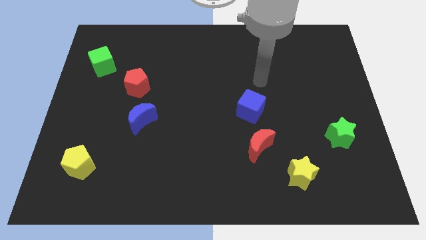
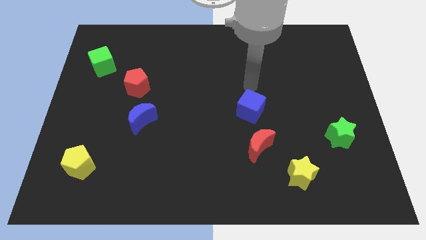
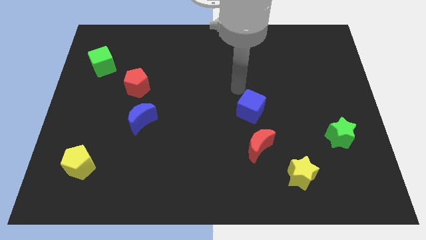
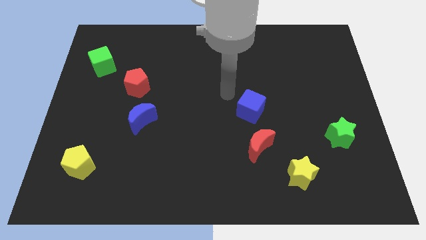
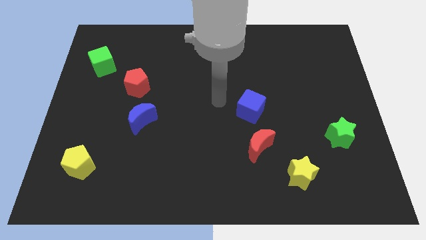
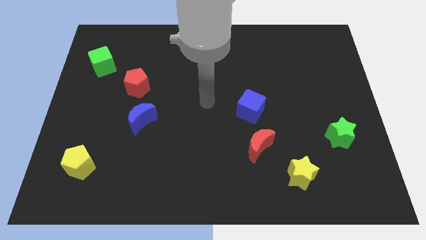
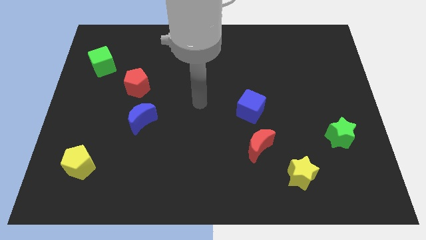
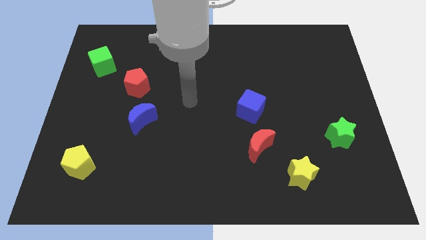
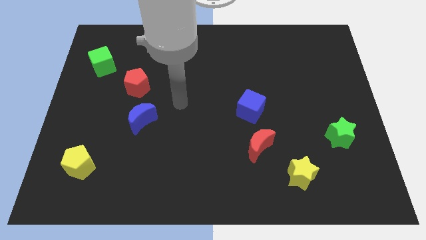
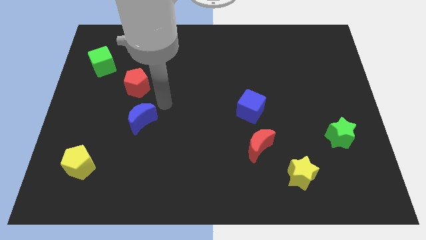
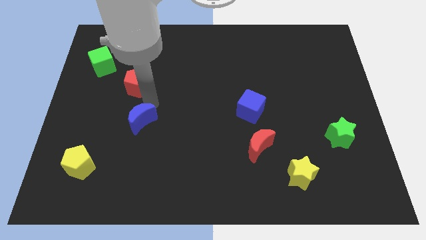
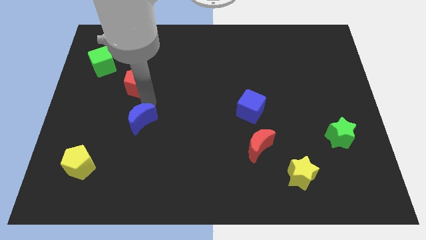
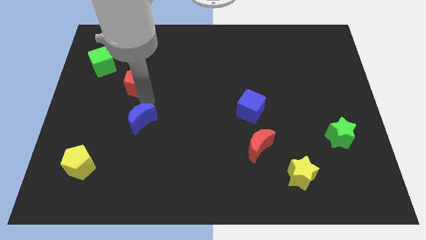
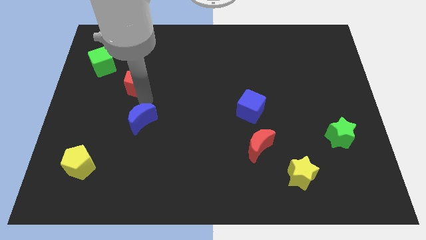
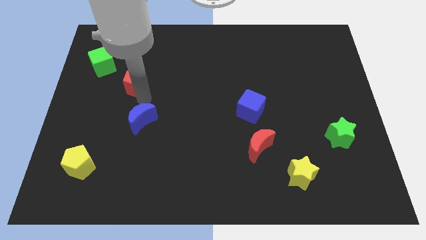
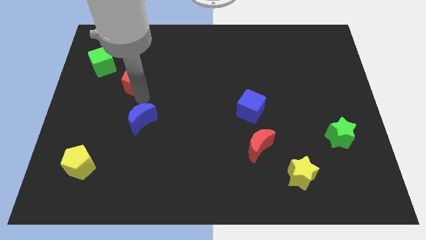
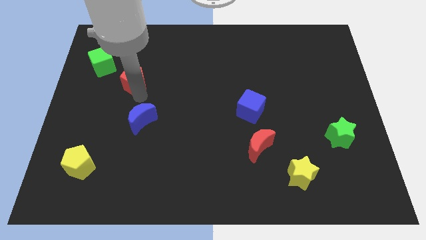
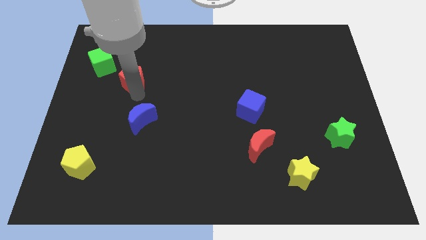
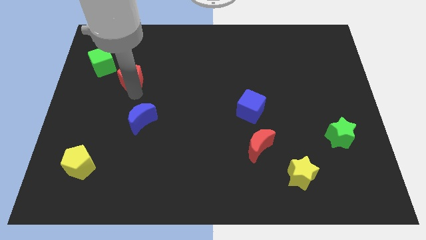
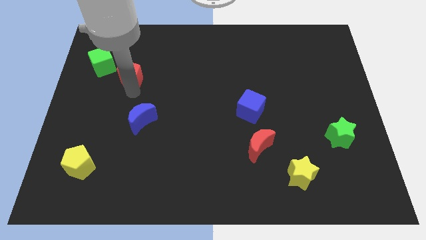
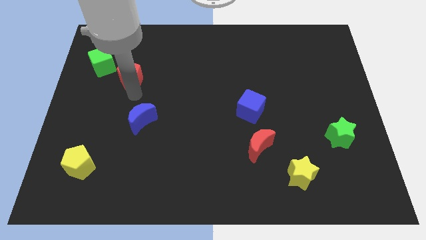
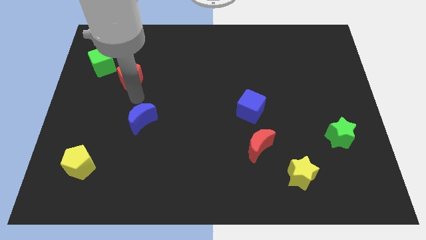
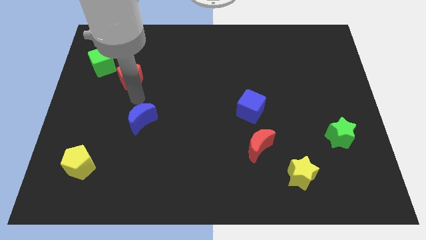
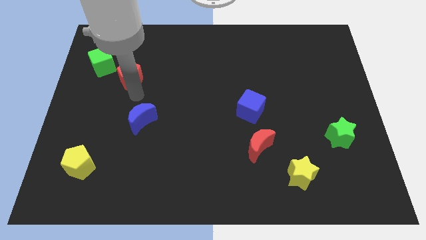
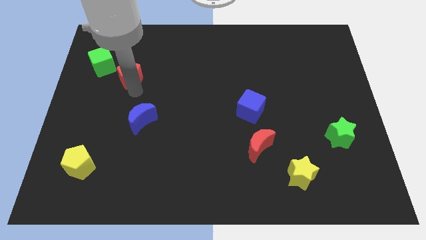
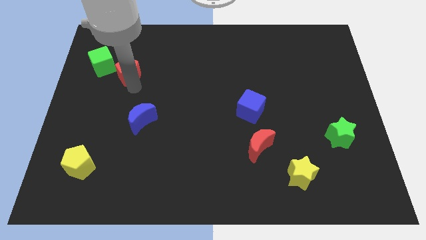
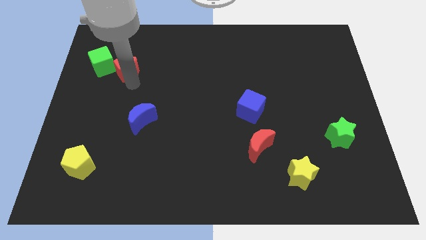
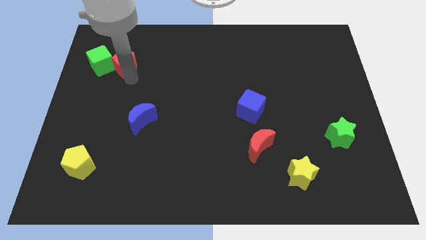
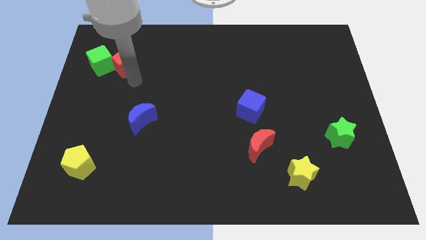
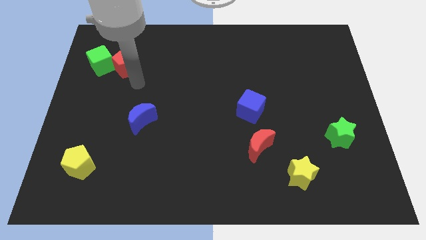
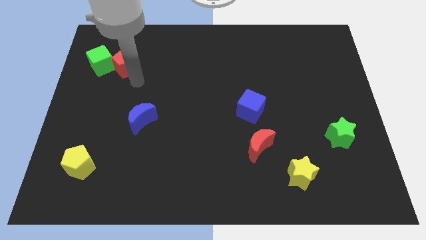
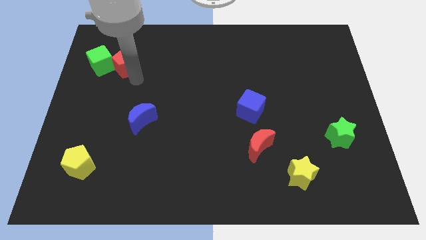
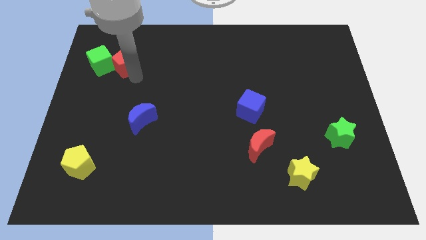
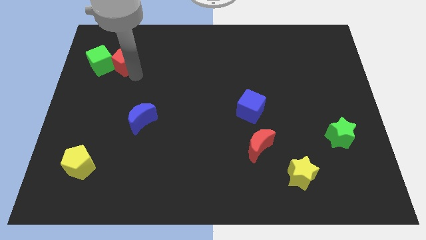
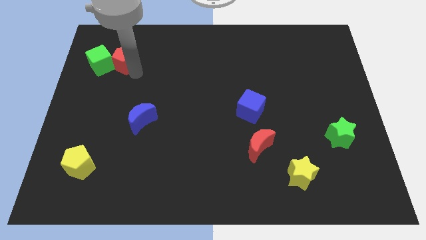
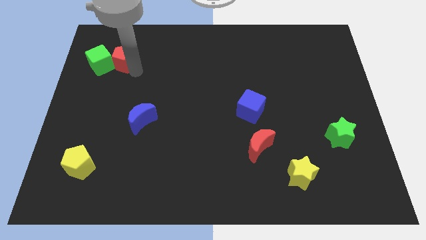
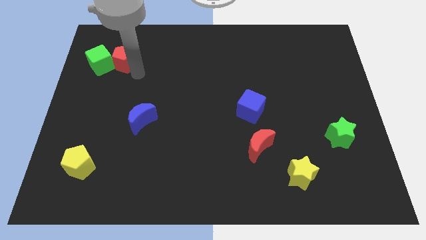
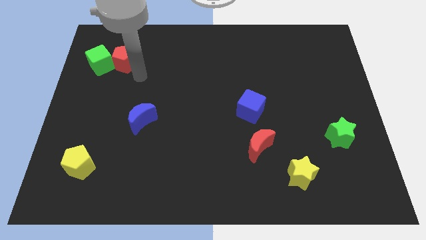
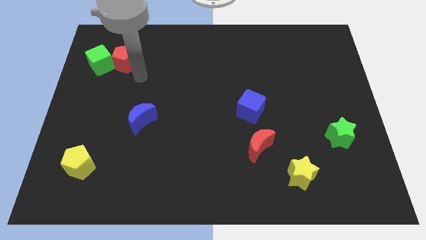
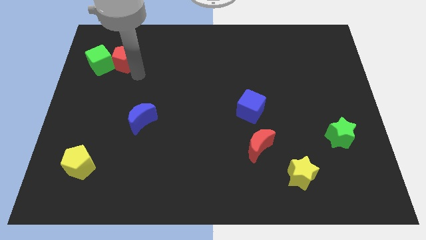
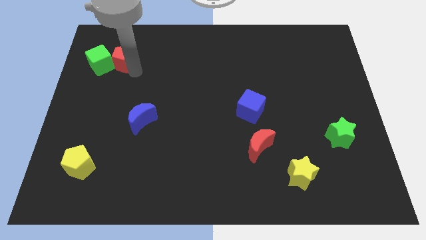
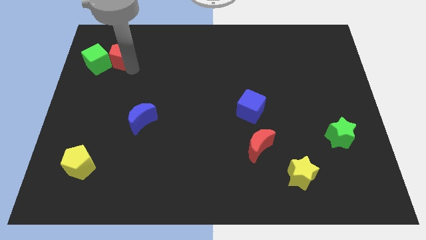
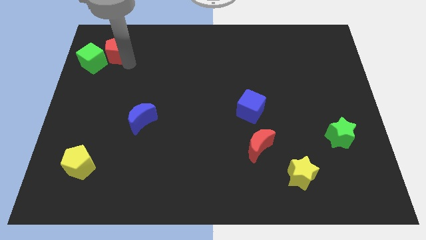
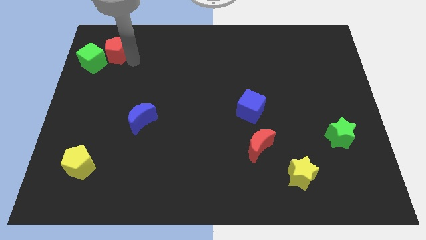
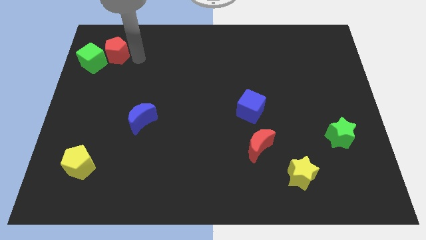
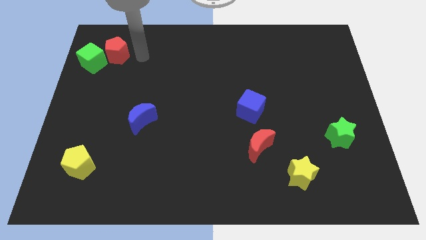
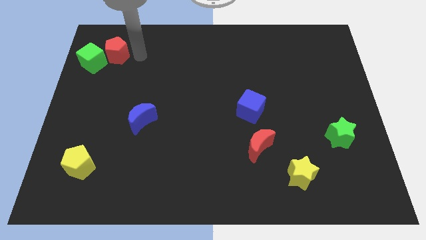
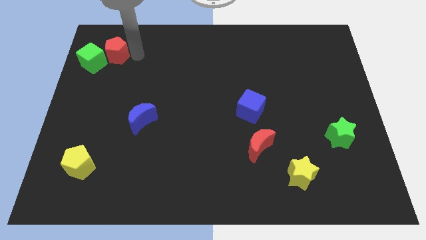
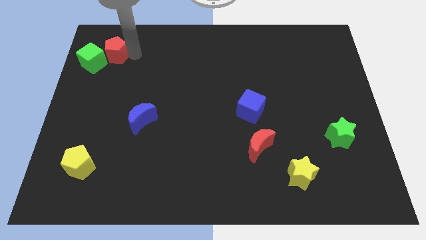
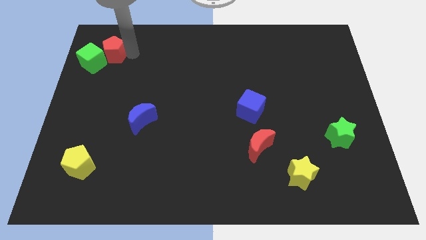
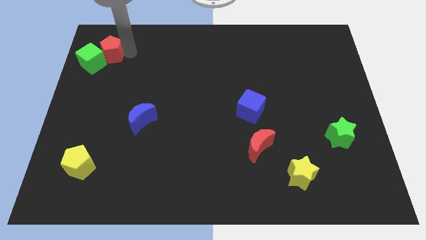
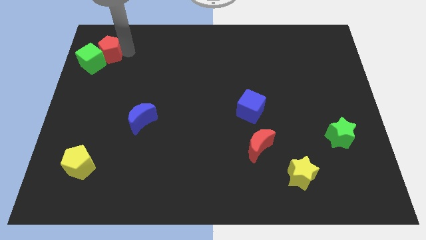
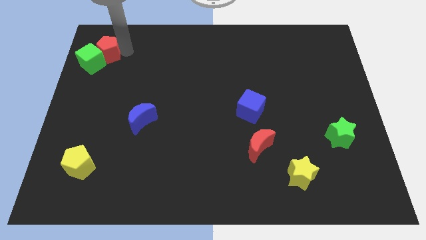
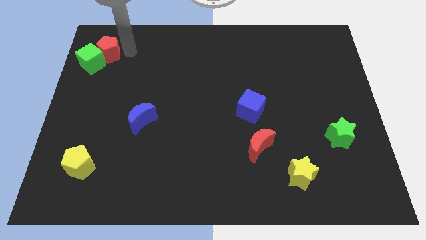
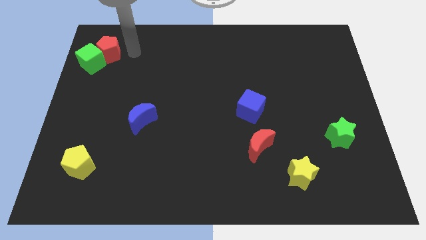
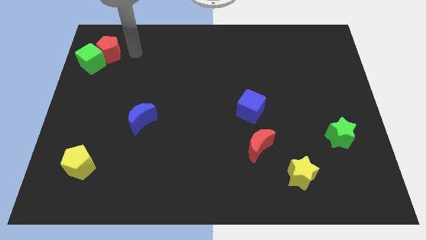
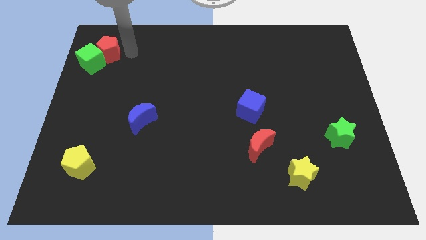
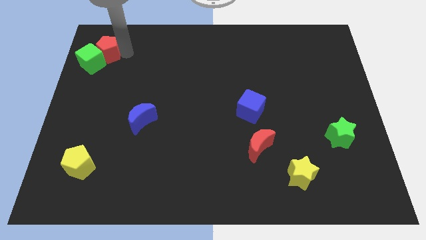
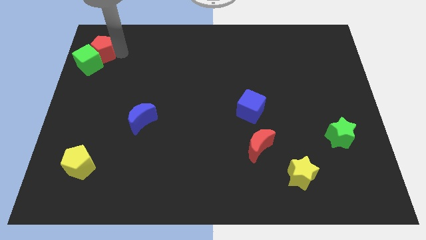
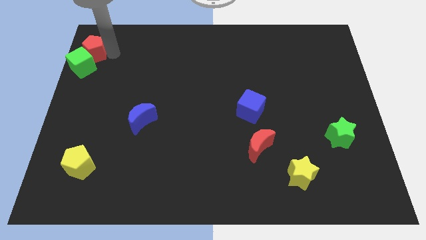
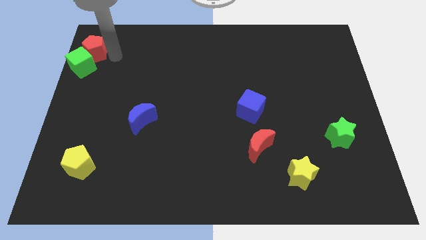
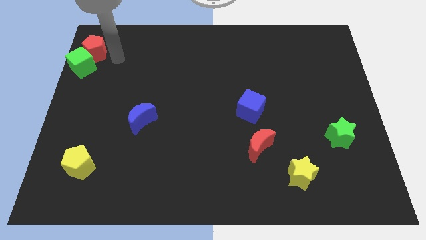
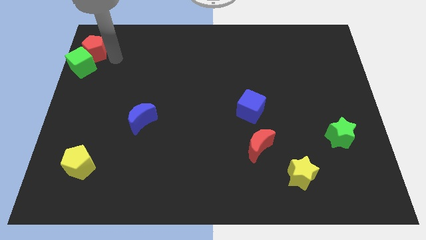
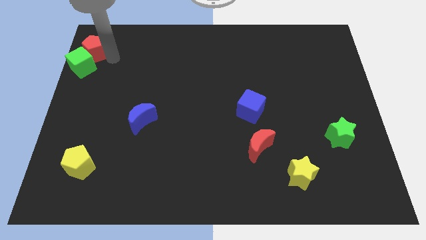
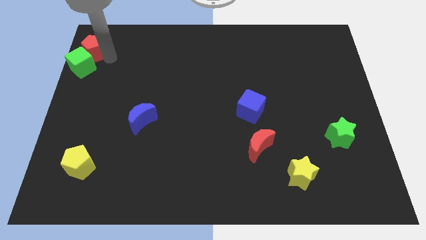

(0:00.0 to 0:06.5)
move the red pentagon to the top left corner
